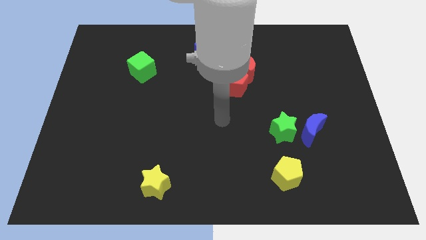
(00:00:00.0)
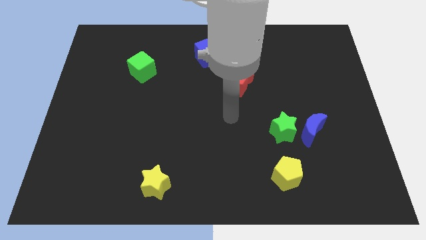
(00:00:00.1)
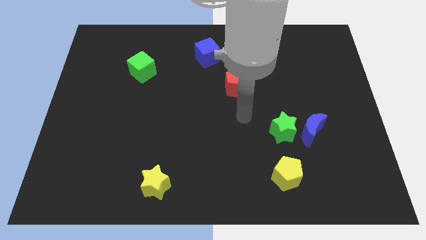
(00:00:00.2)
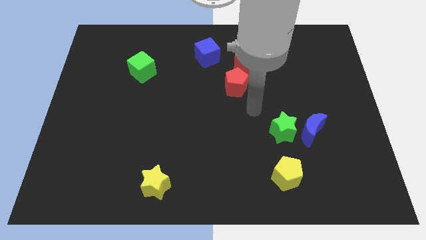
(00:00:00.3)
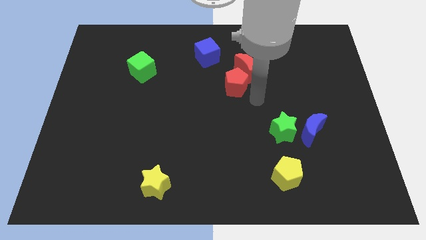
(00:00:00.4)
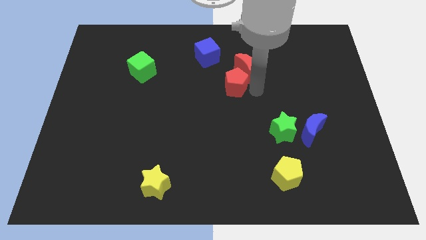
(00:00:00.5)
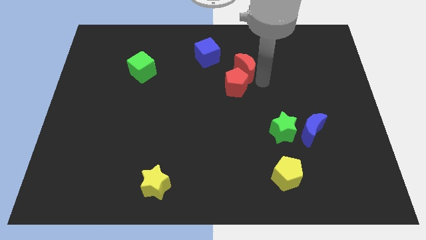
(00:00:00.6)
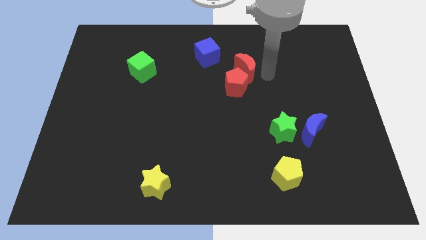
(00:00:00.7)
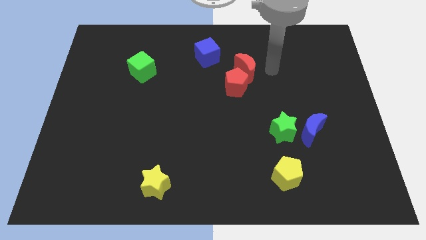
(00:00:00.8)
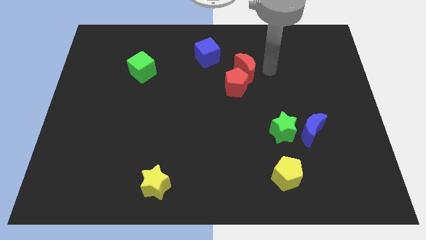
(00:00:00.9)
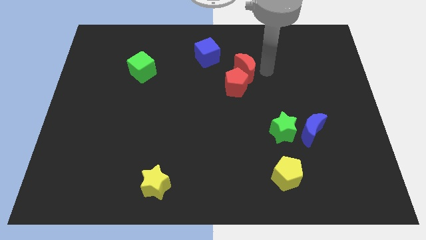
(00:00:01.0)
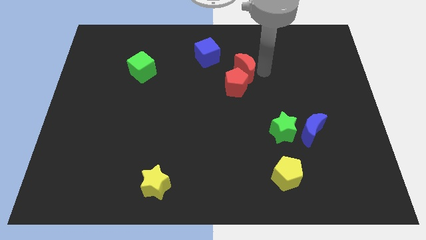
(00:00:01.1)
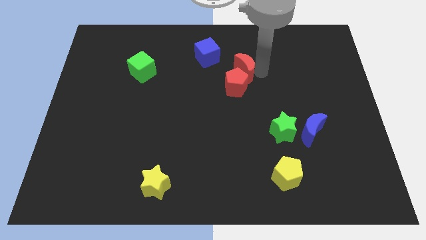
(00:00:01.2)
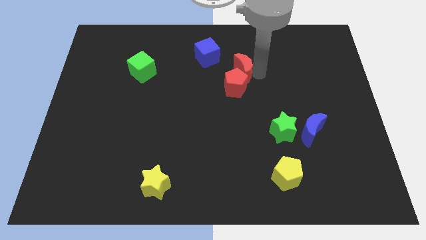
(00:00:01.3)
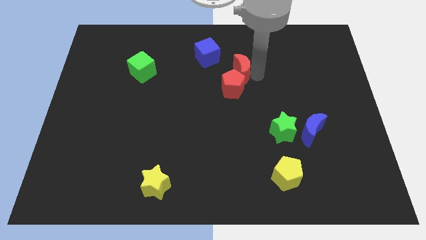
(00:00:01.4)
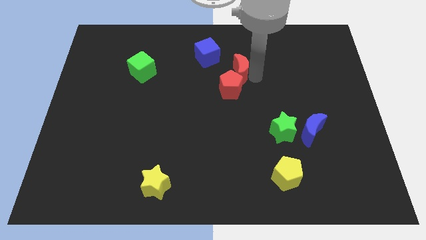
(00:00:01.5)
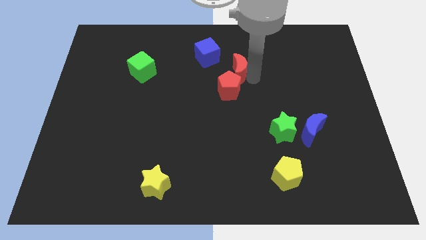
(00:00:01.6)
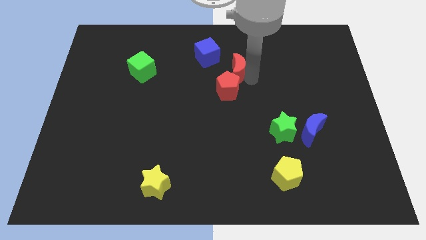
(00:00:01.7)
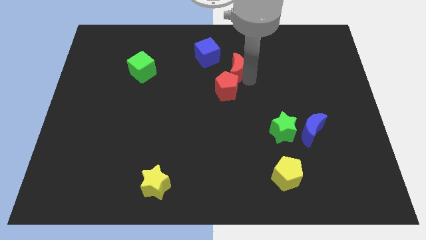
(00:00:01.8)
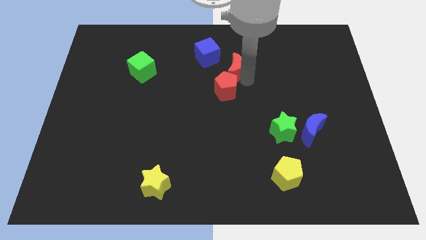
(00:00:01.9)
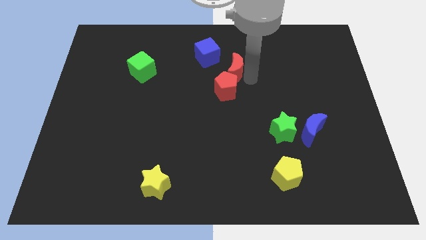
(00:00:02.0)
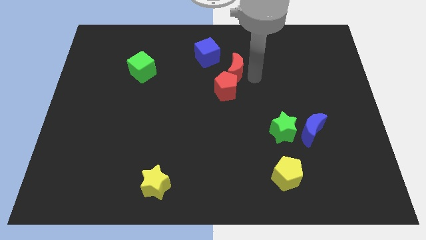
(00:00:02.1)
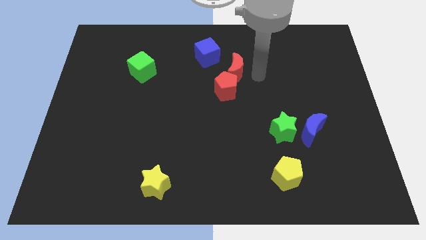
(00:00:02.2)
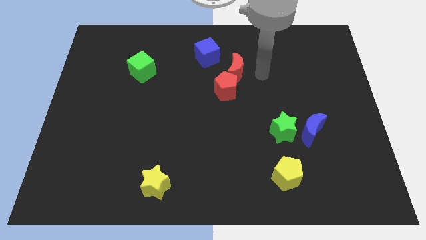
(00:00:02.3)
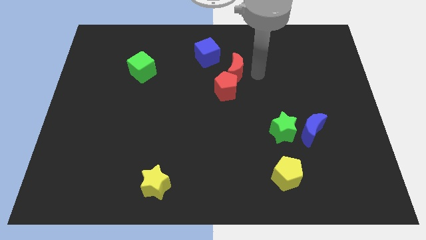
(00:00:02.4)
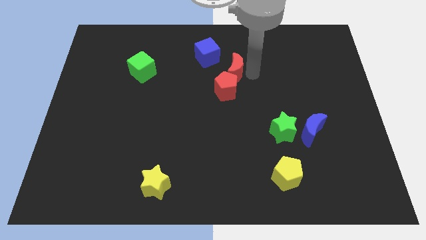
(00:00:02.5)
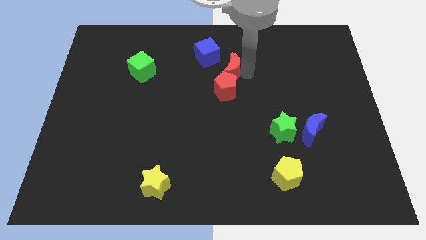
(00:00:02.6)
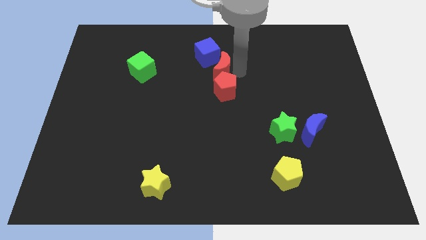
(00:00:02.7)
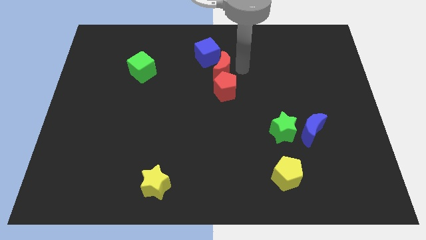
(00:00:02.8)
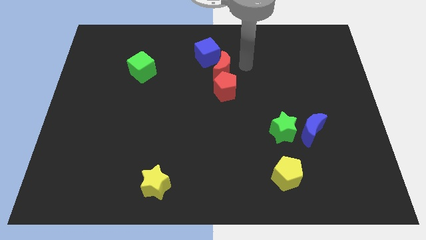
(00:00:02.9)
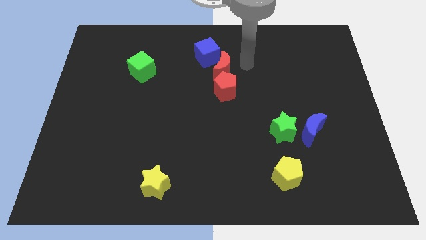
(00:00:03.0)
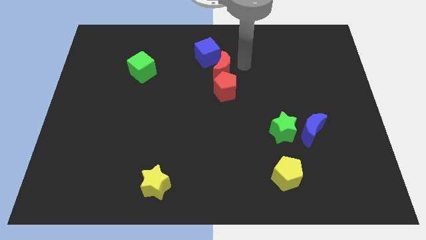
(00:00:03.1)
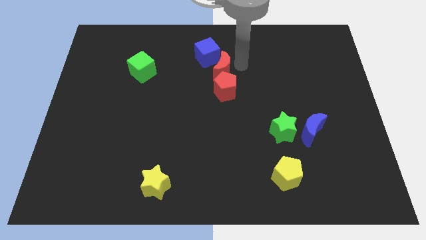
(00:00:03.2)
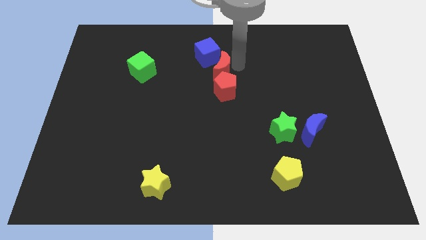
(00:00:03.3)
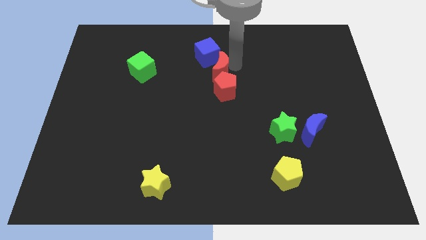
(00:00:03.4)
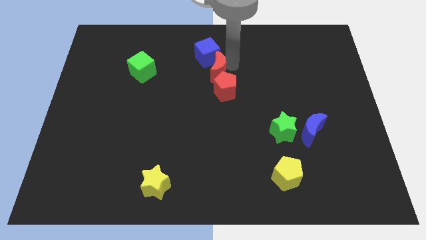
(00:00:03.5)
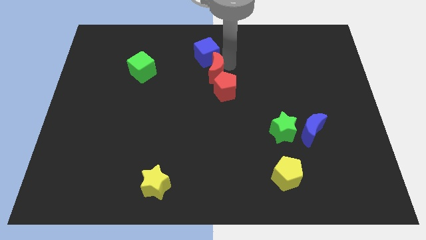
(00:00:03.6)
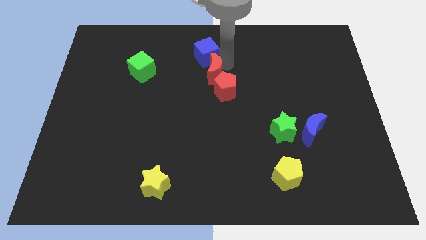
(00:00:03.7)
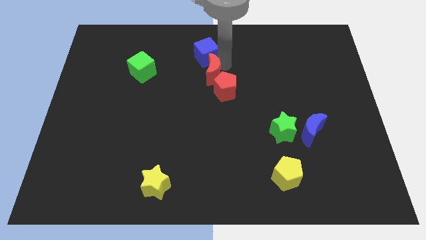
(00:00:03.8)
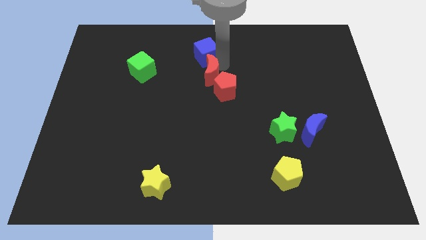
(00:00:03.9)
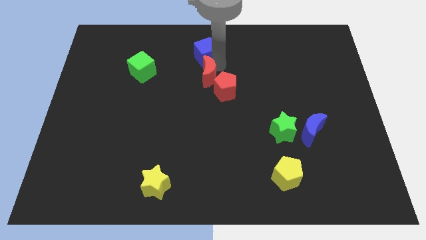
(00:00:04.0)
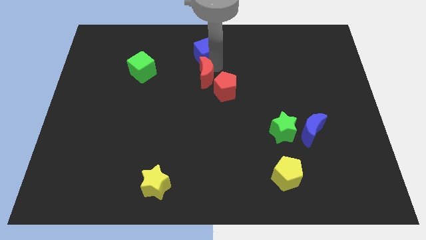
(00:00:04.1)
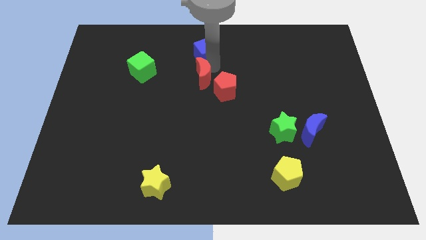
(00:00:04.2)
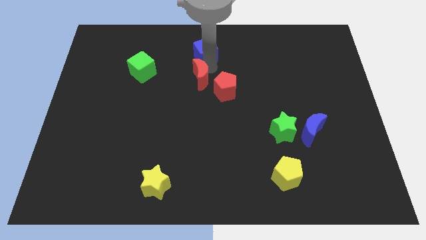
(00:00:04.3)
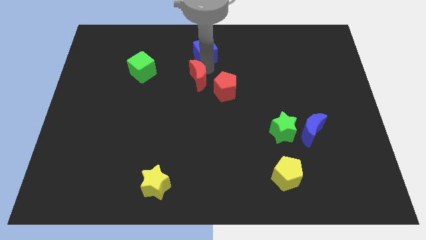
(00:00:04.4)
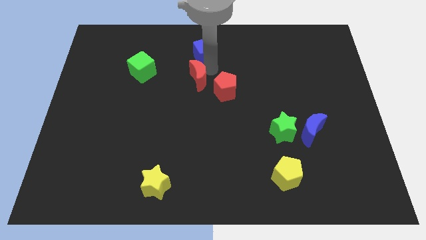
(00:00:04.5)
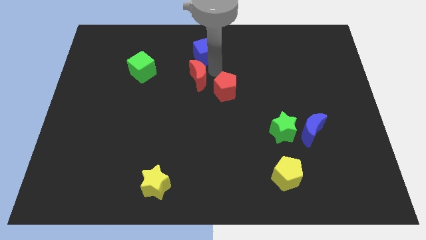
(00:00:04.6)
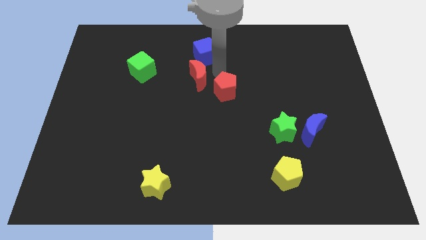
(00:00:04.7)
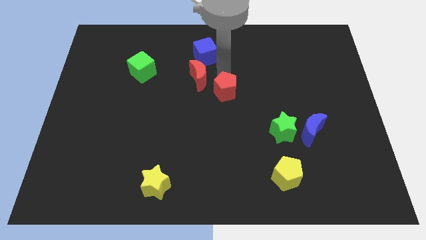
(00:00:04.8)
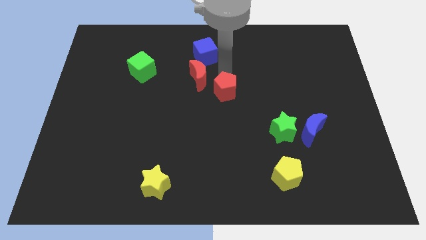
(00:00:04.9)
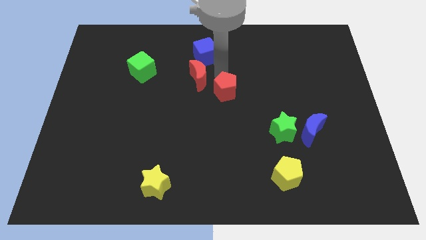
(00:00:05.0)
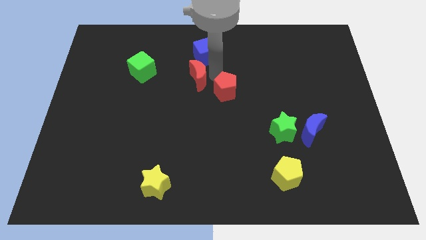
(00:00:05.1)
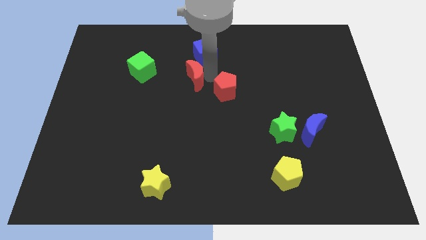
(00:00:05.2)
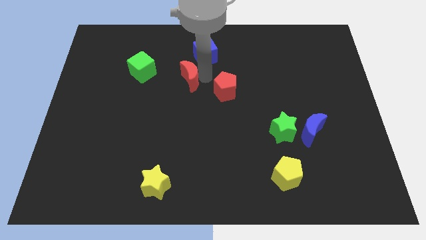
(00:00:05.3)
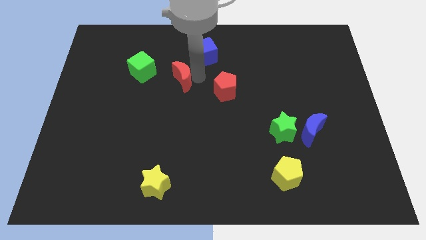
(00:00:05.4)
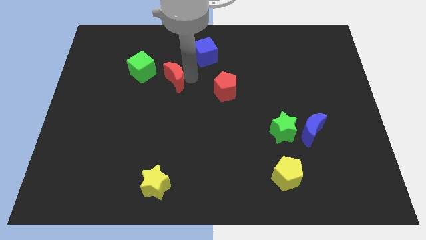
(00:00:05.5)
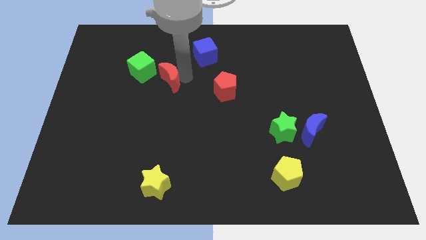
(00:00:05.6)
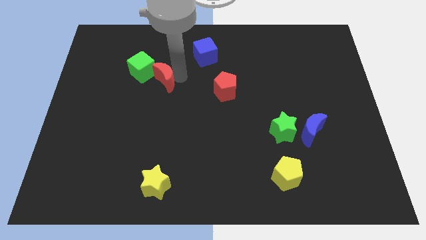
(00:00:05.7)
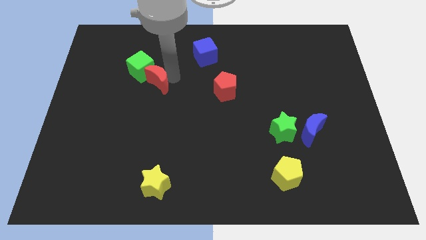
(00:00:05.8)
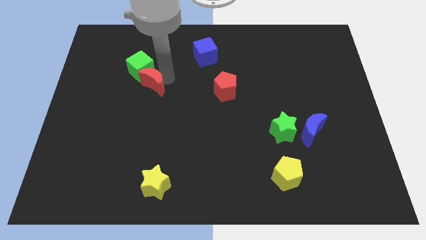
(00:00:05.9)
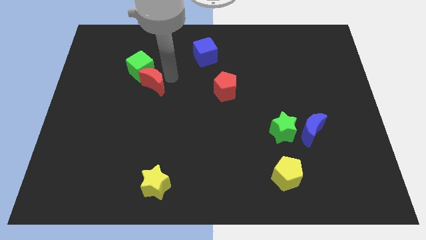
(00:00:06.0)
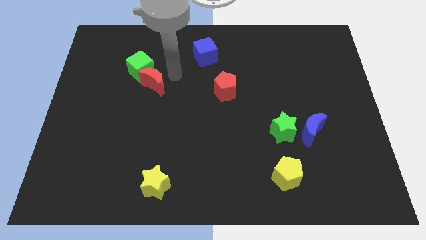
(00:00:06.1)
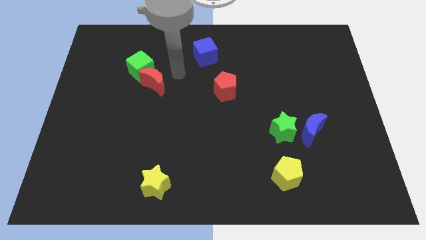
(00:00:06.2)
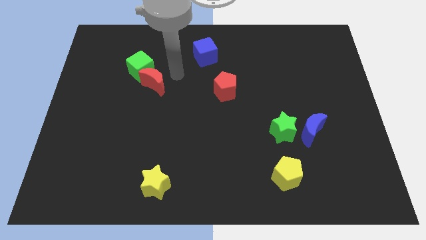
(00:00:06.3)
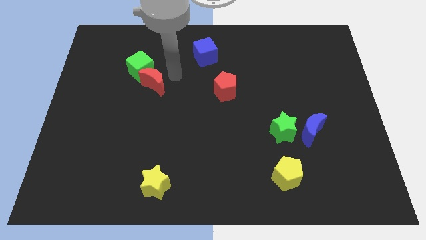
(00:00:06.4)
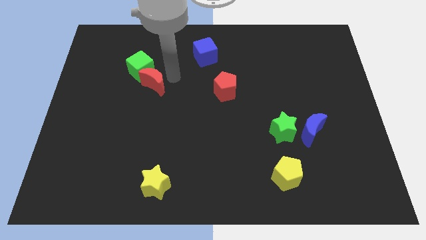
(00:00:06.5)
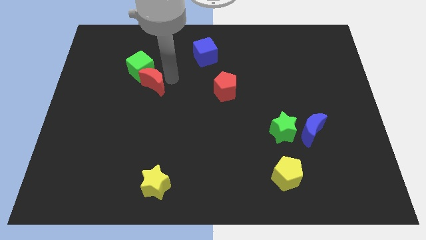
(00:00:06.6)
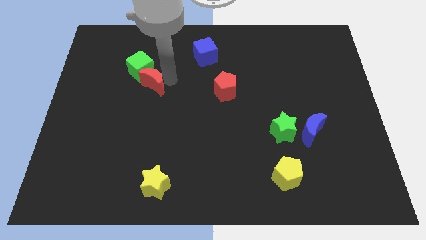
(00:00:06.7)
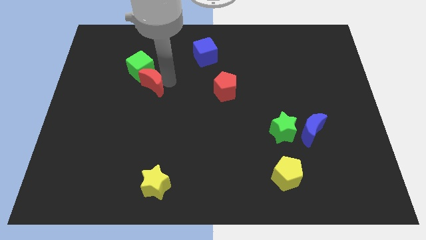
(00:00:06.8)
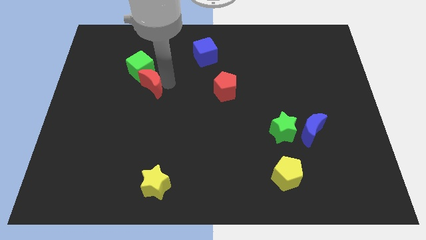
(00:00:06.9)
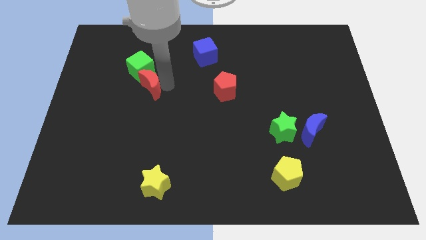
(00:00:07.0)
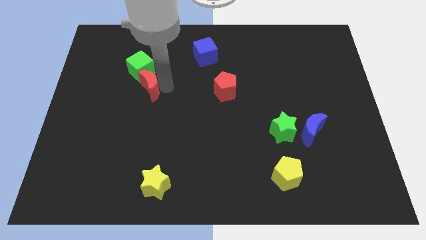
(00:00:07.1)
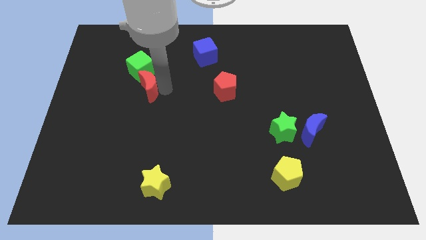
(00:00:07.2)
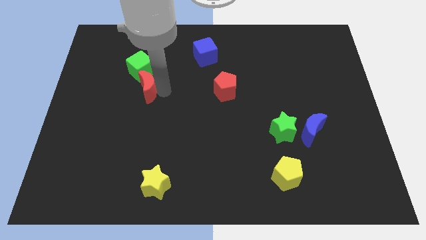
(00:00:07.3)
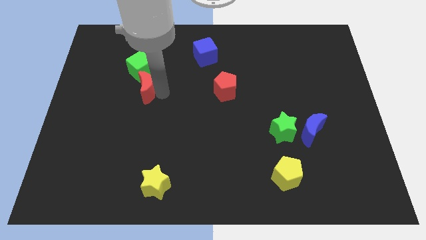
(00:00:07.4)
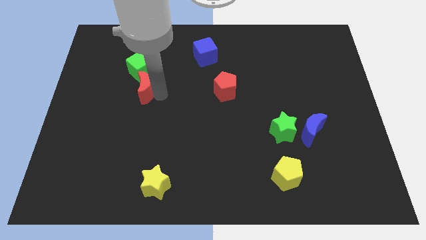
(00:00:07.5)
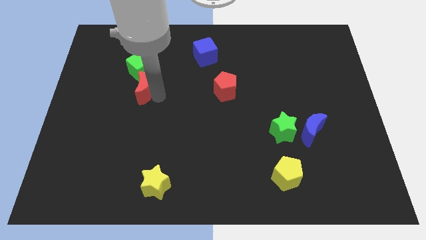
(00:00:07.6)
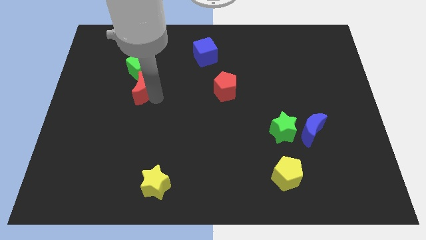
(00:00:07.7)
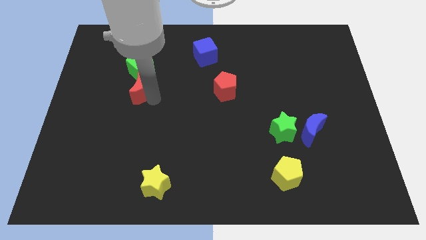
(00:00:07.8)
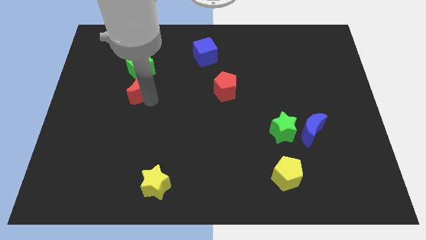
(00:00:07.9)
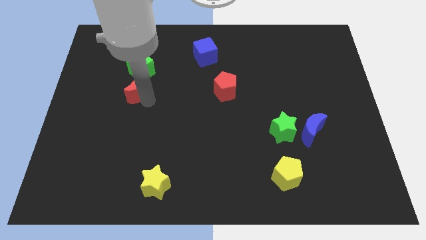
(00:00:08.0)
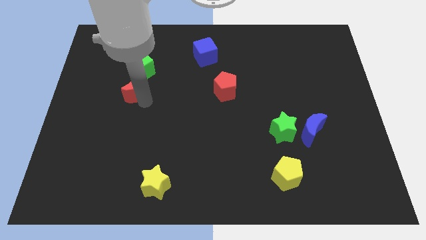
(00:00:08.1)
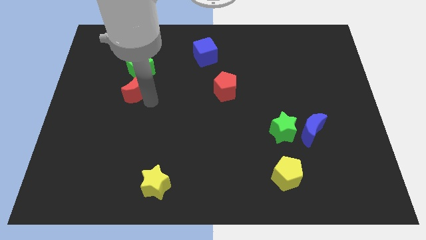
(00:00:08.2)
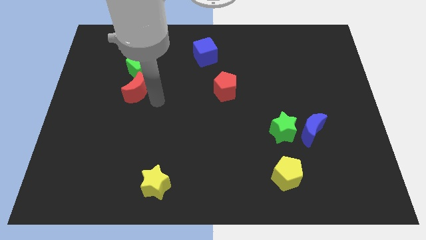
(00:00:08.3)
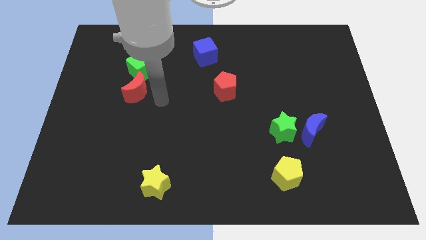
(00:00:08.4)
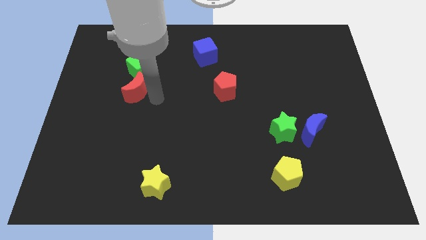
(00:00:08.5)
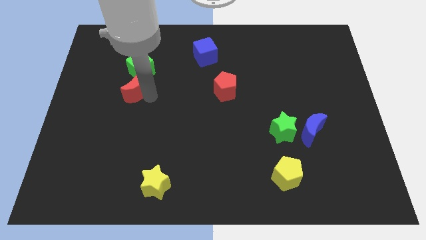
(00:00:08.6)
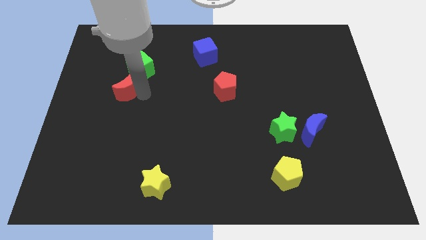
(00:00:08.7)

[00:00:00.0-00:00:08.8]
slide the red moon to the bottom left of the green cube
